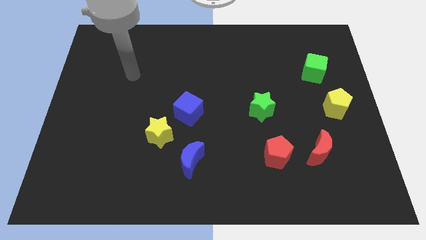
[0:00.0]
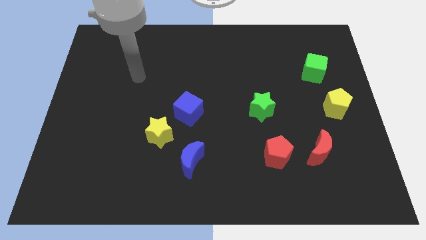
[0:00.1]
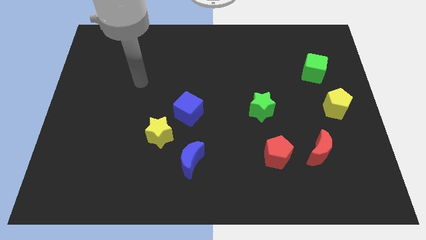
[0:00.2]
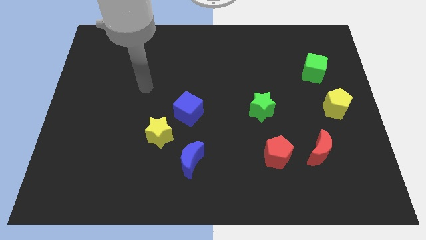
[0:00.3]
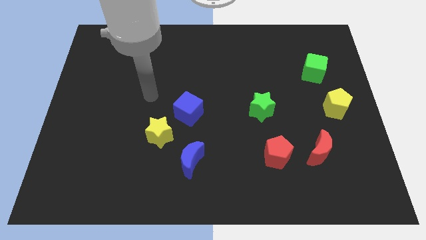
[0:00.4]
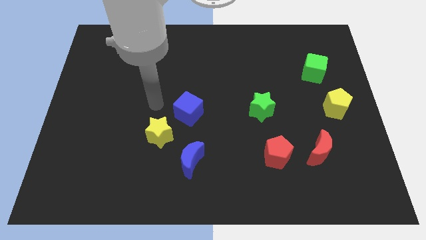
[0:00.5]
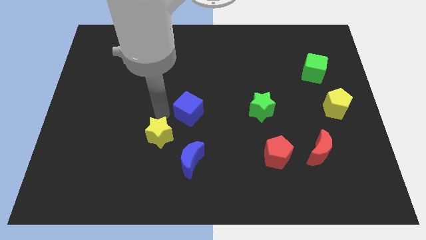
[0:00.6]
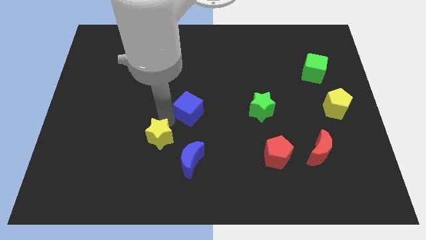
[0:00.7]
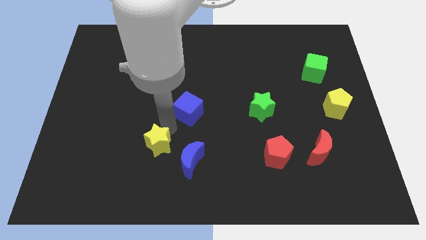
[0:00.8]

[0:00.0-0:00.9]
separate the blue cube from the yellow star

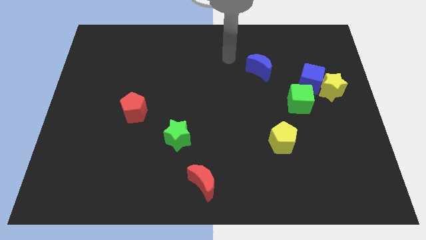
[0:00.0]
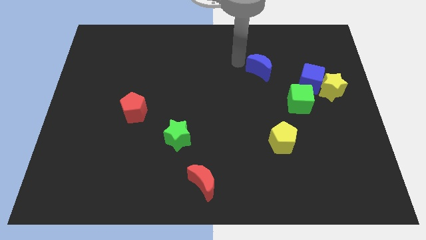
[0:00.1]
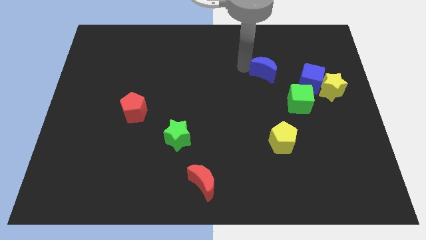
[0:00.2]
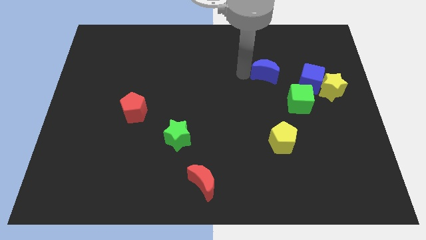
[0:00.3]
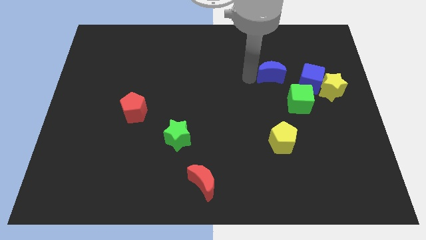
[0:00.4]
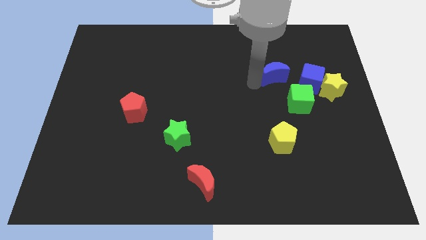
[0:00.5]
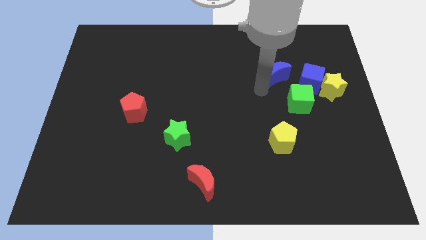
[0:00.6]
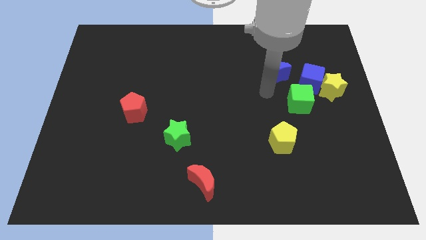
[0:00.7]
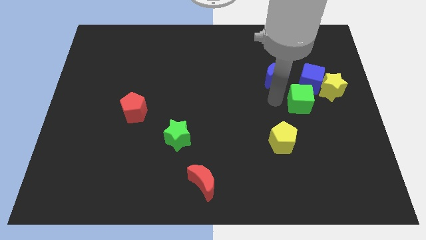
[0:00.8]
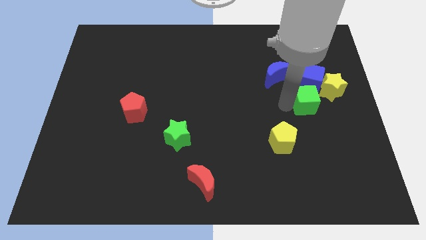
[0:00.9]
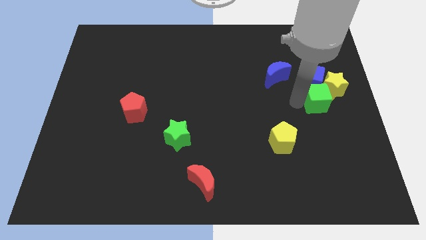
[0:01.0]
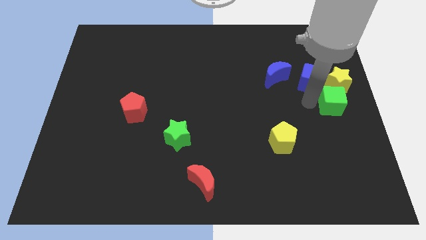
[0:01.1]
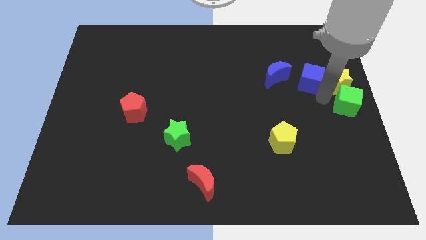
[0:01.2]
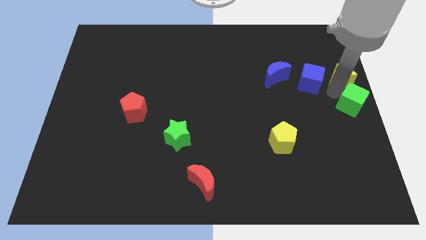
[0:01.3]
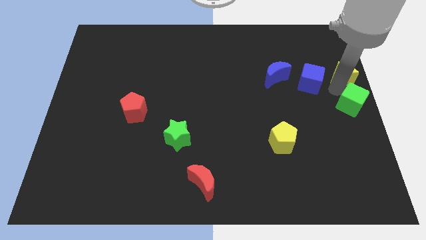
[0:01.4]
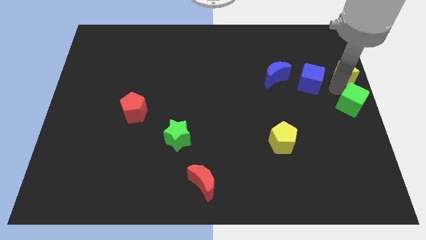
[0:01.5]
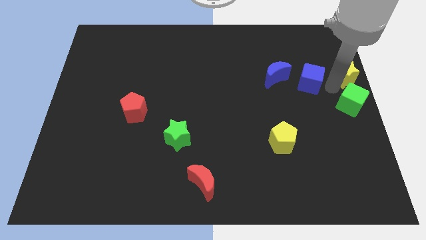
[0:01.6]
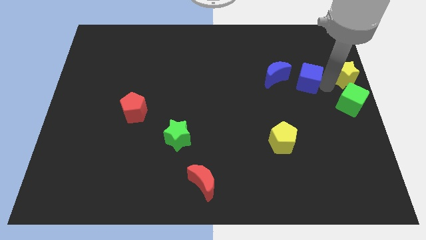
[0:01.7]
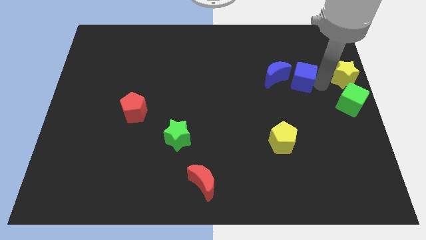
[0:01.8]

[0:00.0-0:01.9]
separate the blue cube from the yellow star and green cube

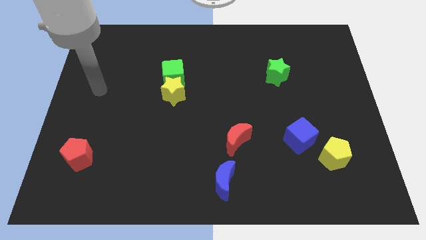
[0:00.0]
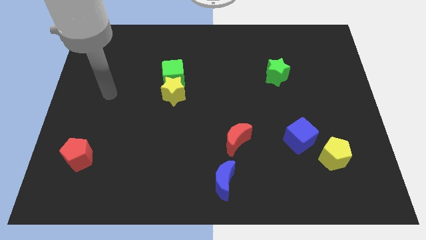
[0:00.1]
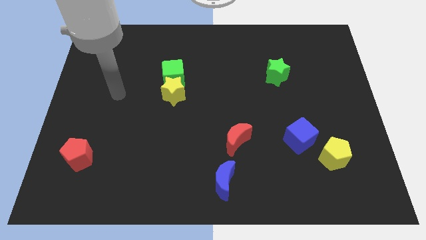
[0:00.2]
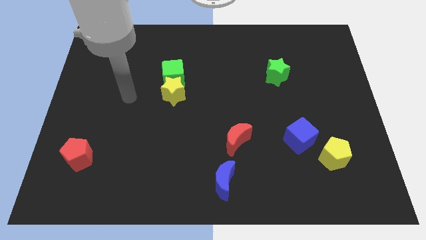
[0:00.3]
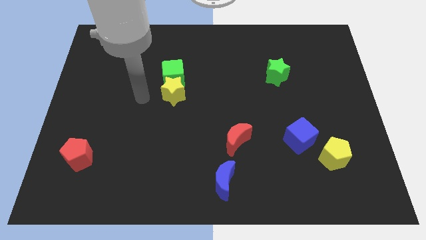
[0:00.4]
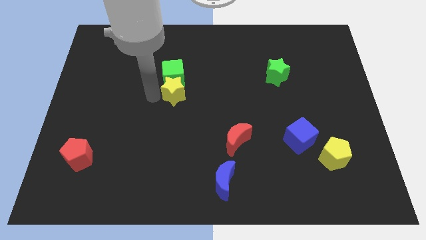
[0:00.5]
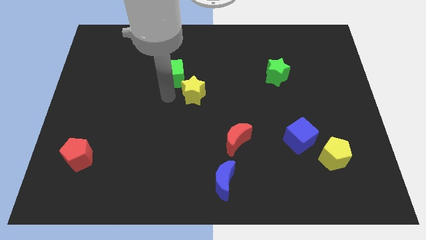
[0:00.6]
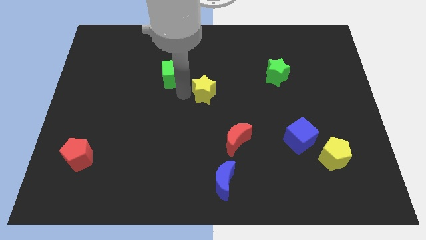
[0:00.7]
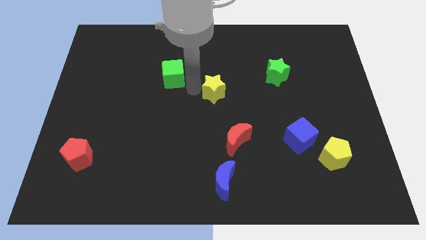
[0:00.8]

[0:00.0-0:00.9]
separate the green cube from the yellow star

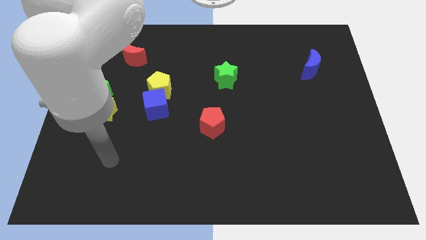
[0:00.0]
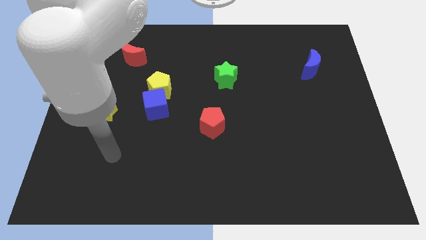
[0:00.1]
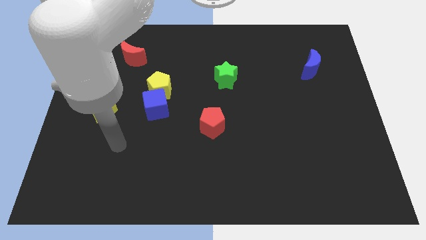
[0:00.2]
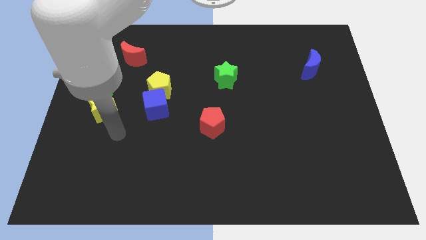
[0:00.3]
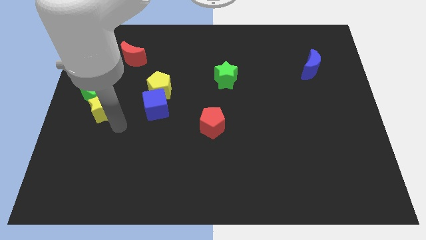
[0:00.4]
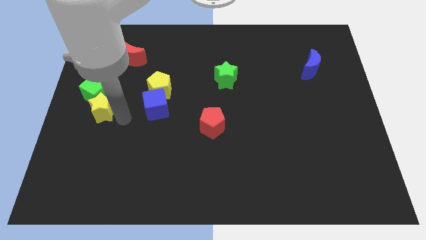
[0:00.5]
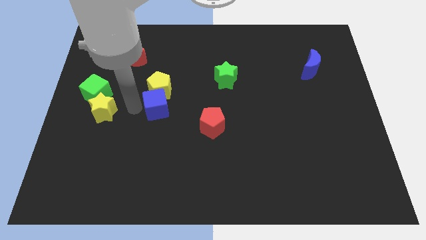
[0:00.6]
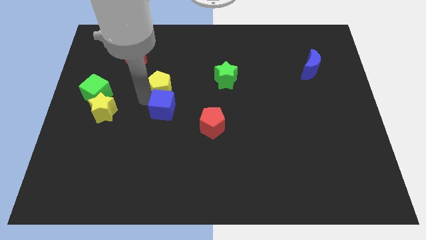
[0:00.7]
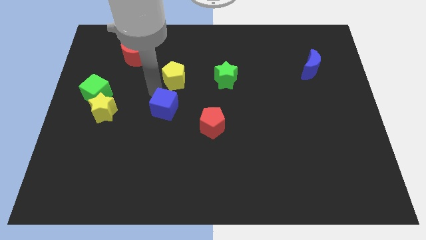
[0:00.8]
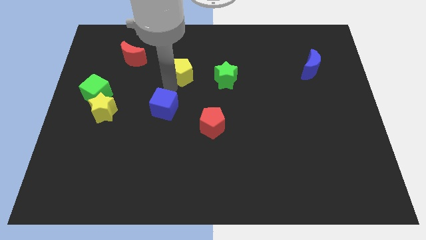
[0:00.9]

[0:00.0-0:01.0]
pull the blue cube apart from the yellow pentagon

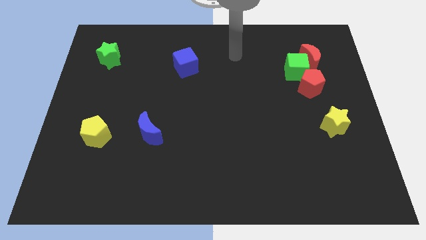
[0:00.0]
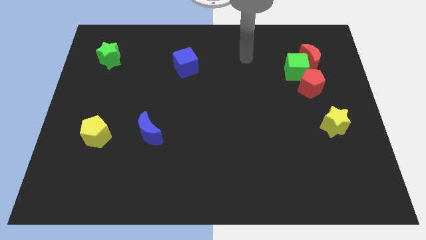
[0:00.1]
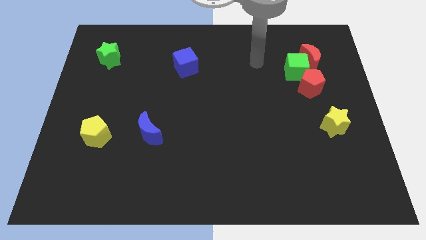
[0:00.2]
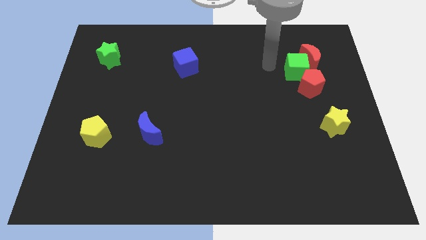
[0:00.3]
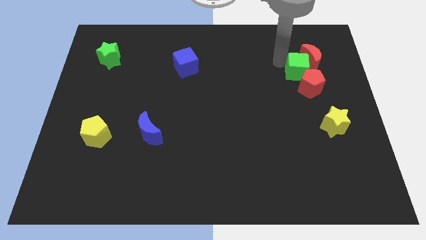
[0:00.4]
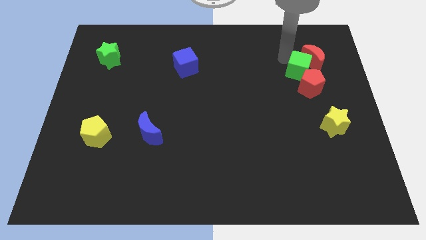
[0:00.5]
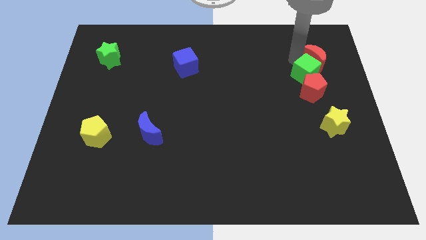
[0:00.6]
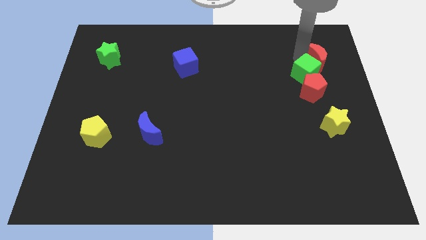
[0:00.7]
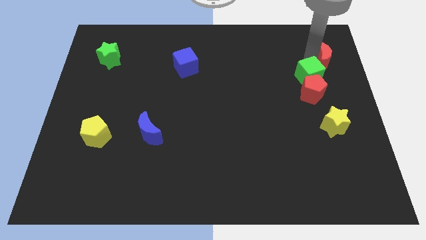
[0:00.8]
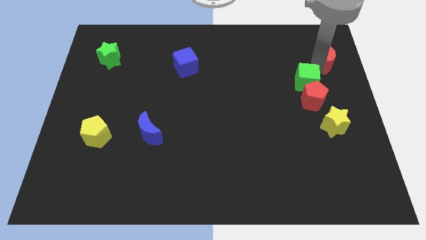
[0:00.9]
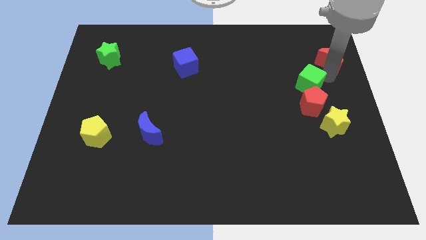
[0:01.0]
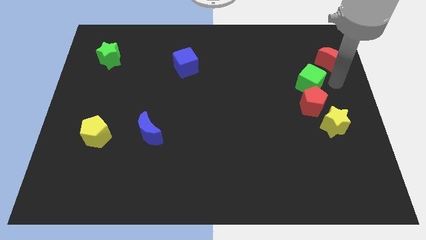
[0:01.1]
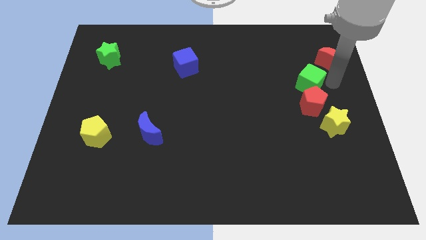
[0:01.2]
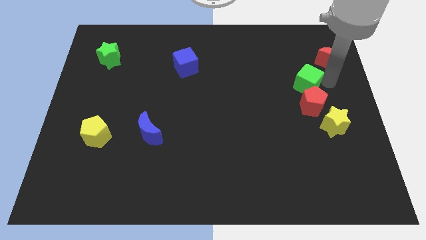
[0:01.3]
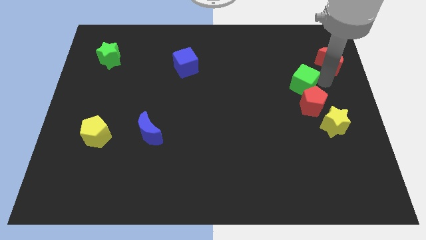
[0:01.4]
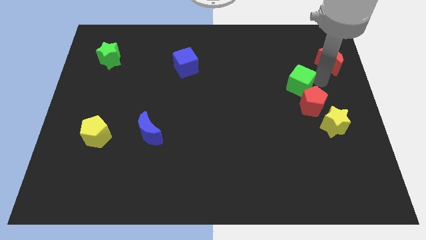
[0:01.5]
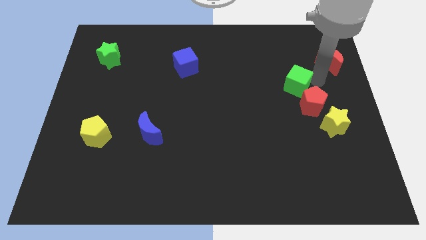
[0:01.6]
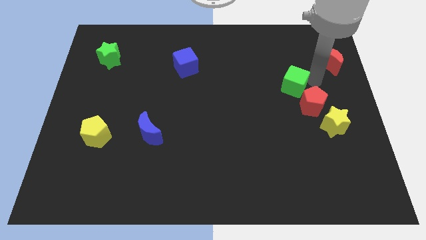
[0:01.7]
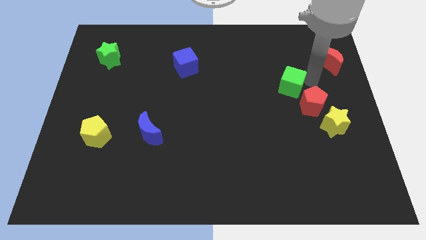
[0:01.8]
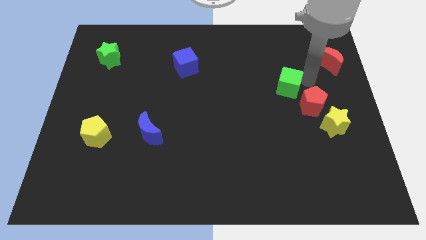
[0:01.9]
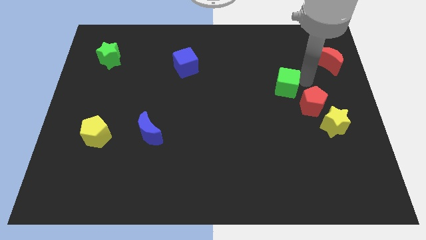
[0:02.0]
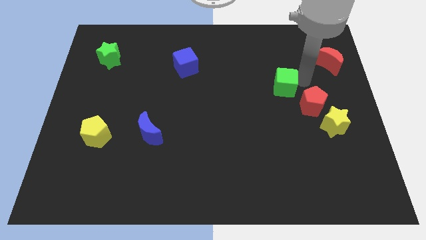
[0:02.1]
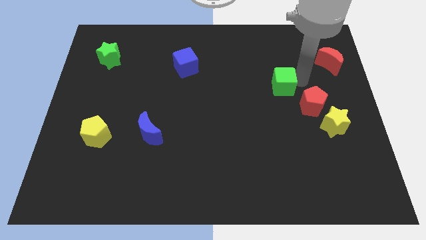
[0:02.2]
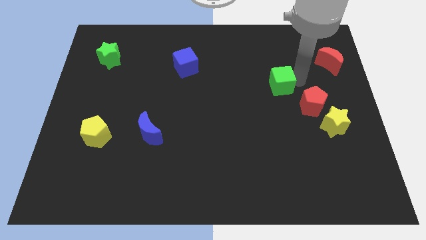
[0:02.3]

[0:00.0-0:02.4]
pull the green cube apart from the red moon and red pentagon

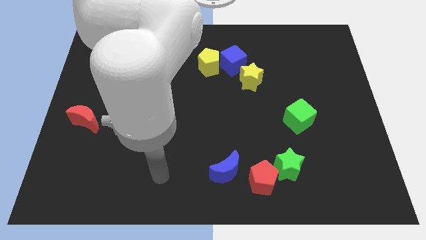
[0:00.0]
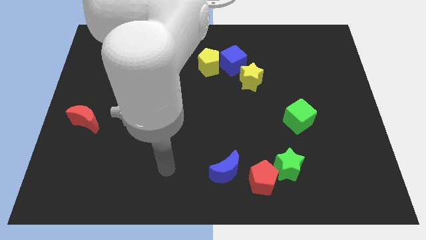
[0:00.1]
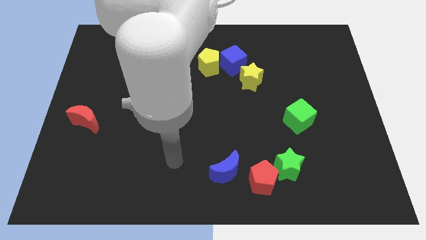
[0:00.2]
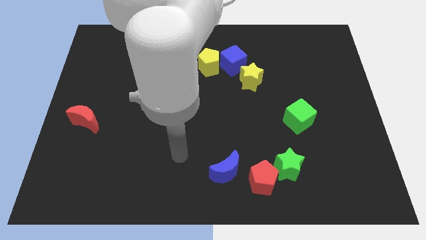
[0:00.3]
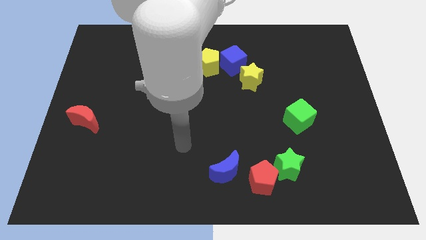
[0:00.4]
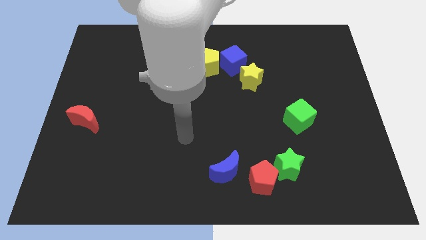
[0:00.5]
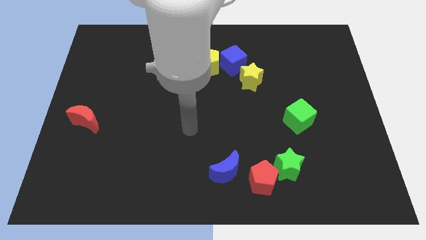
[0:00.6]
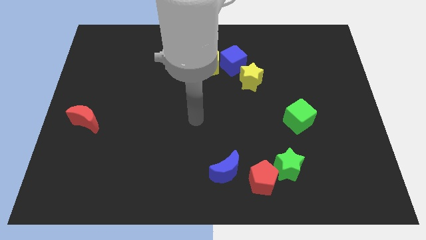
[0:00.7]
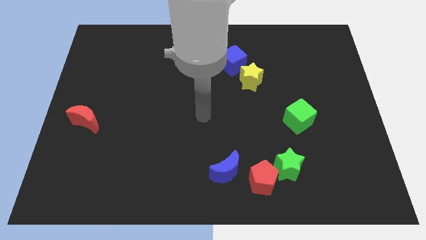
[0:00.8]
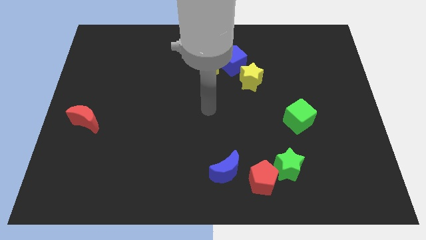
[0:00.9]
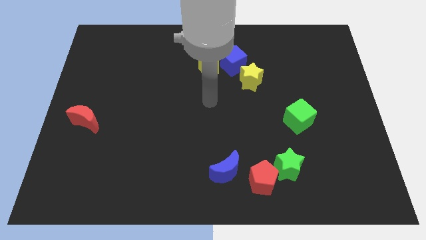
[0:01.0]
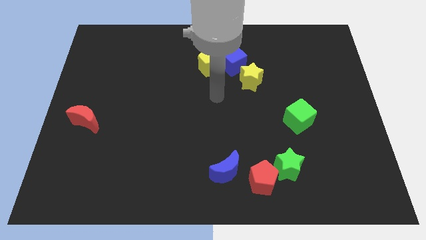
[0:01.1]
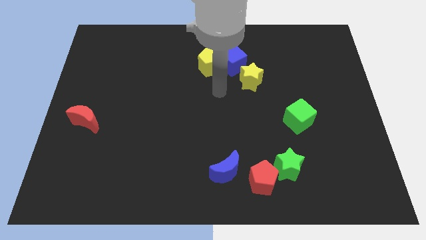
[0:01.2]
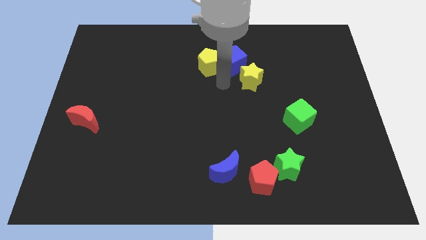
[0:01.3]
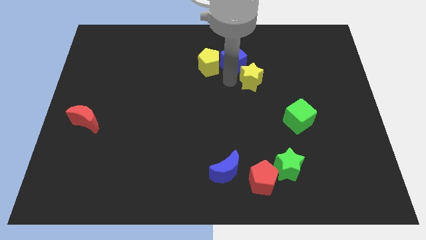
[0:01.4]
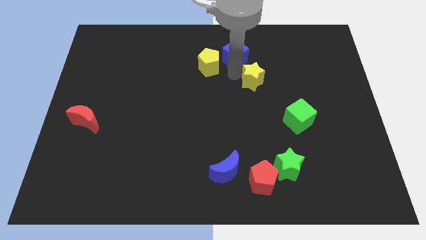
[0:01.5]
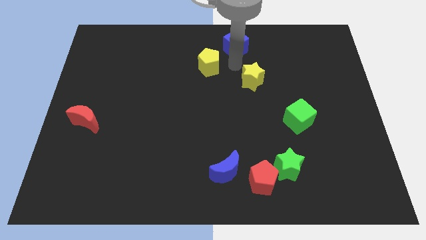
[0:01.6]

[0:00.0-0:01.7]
move the yellow pentagon away from the blue cube

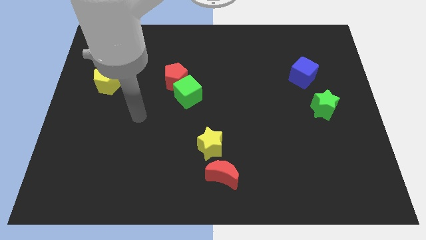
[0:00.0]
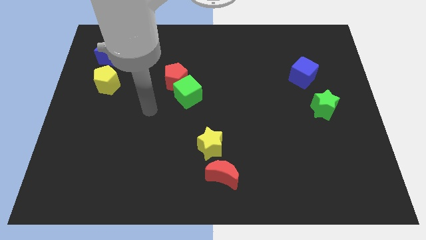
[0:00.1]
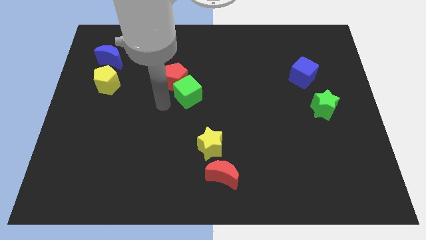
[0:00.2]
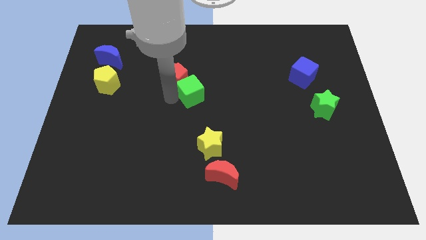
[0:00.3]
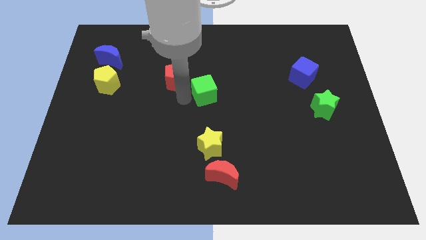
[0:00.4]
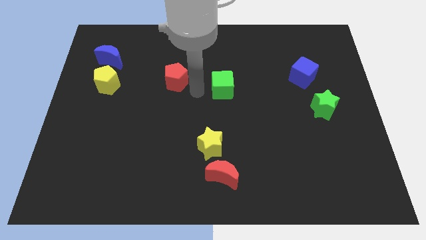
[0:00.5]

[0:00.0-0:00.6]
separate the red pentagon from the green cube
